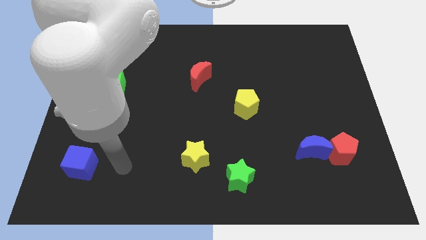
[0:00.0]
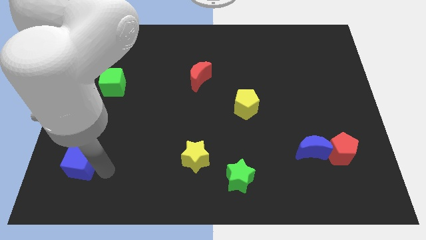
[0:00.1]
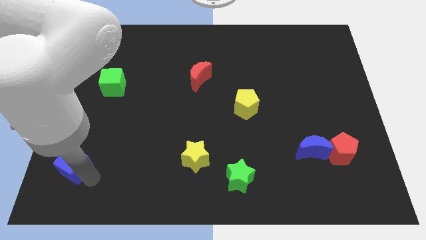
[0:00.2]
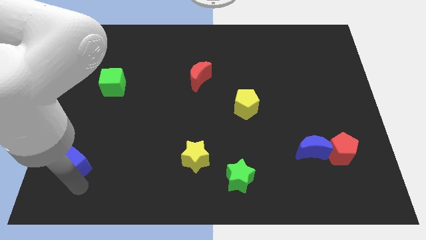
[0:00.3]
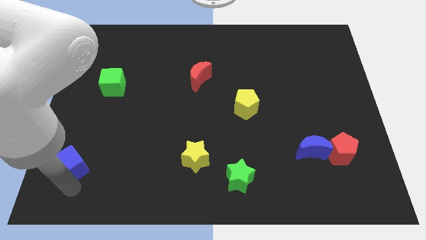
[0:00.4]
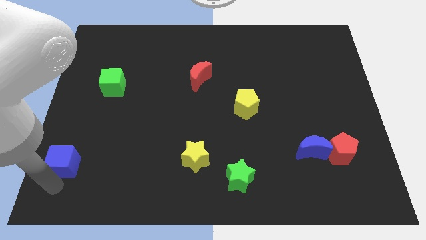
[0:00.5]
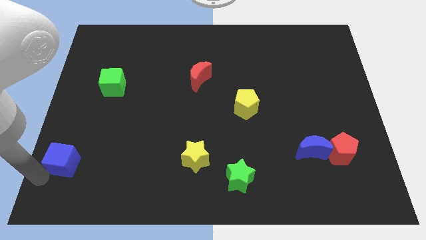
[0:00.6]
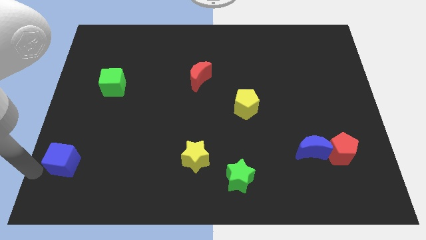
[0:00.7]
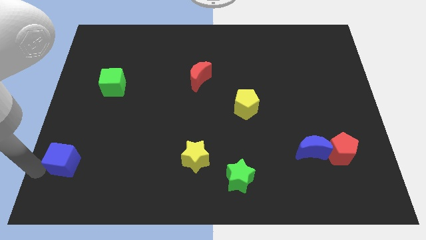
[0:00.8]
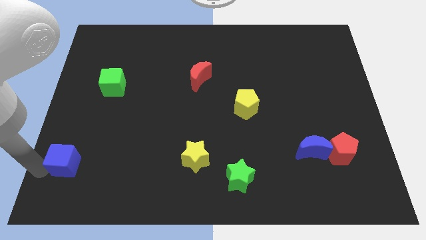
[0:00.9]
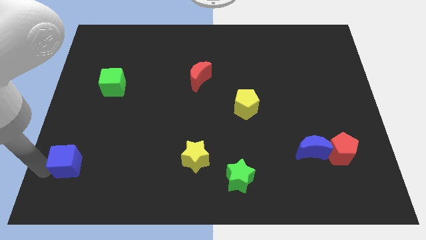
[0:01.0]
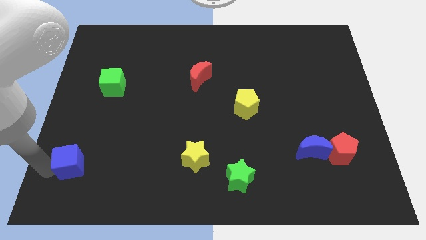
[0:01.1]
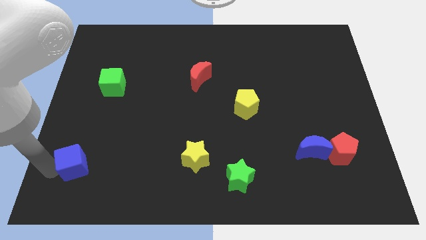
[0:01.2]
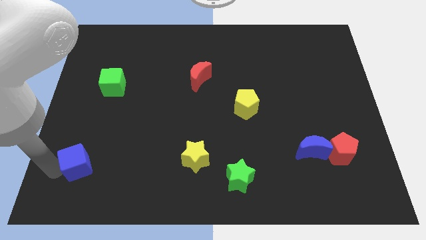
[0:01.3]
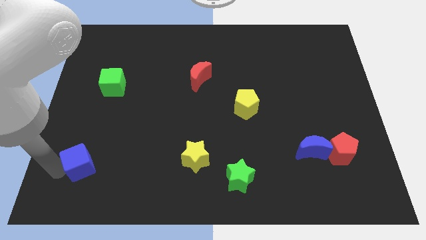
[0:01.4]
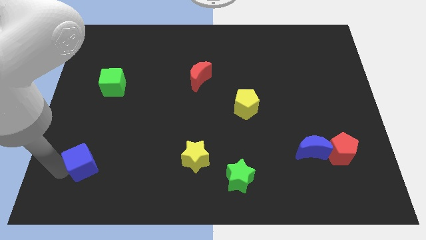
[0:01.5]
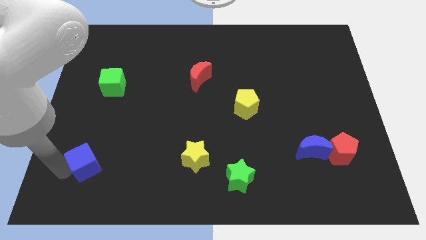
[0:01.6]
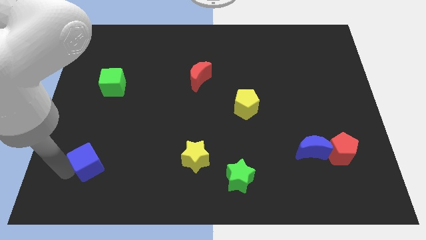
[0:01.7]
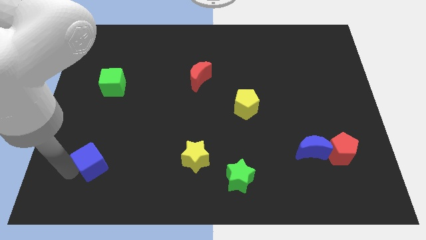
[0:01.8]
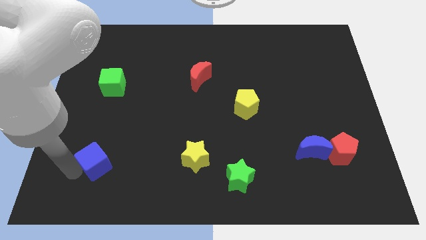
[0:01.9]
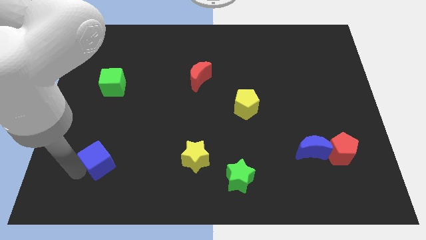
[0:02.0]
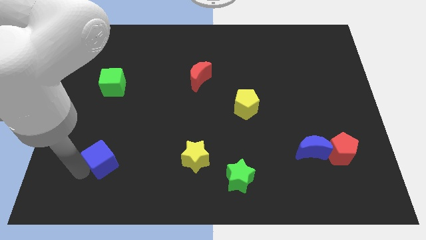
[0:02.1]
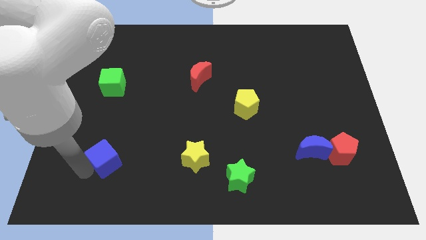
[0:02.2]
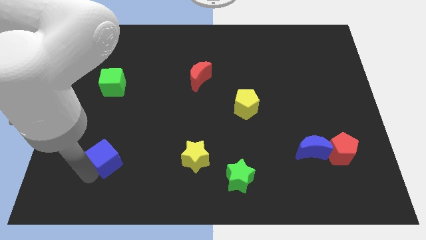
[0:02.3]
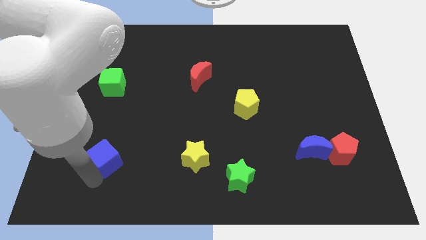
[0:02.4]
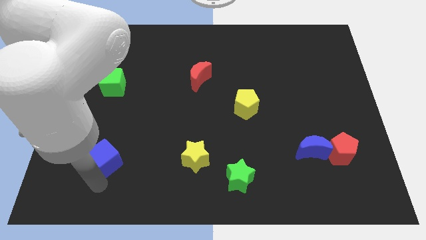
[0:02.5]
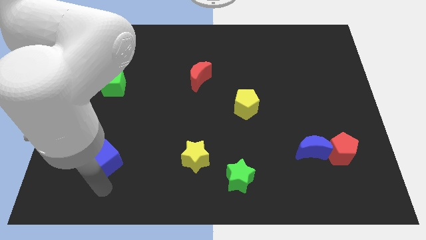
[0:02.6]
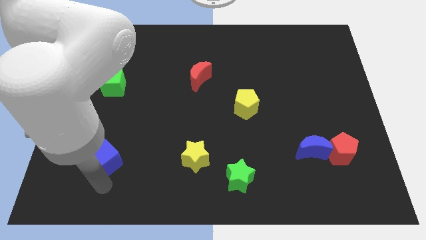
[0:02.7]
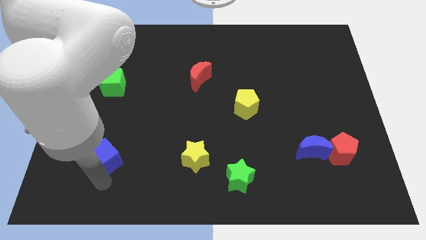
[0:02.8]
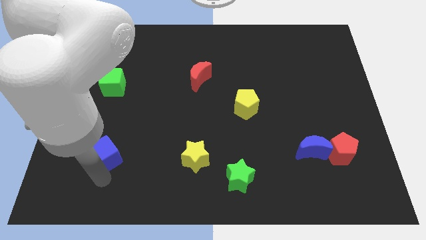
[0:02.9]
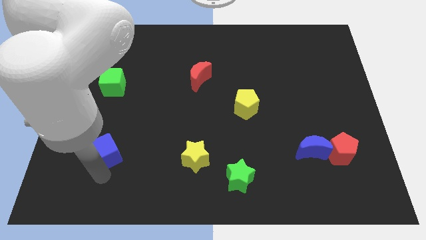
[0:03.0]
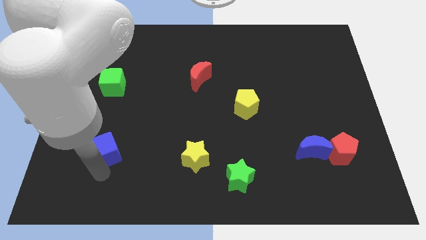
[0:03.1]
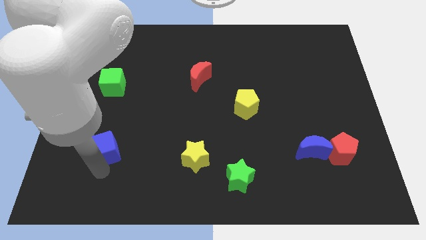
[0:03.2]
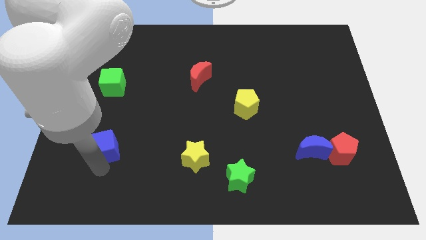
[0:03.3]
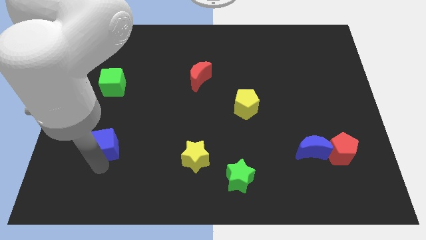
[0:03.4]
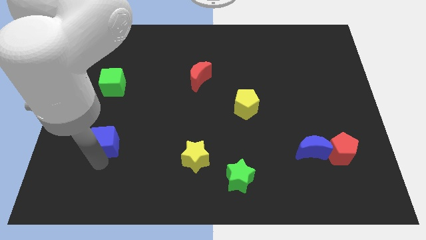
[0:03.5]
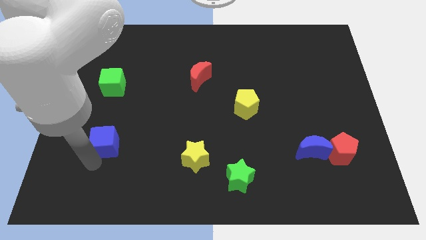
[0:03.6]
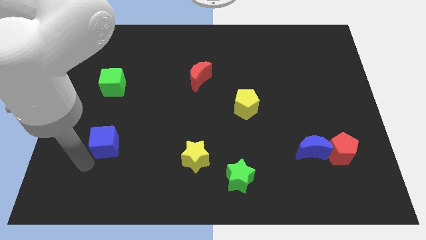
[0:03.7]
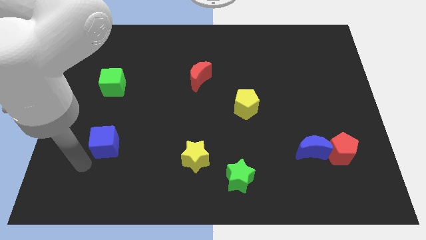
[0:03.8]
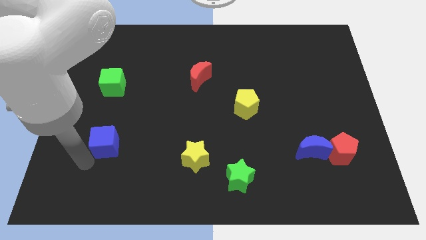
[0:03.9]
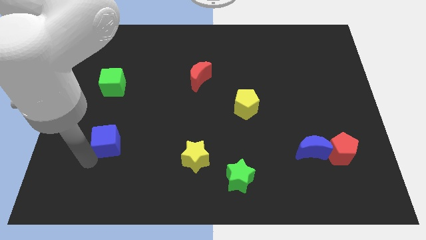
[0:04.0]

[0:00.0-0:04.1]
slide the blue cube somewhat diagonally upwards and right

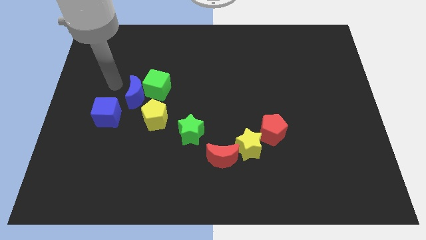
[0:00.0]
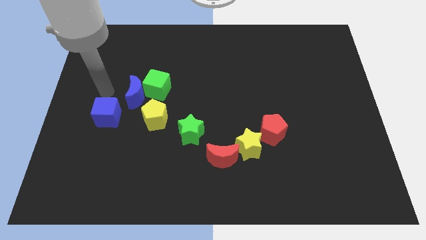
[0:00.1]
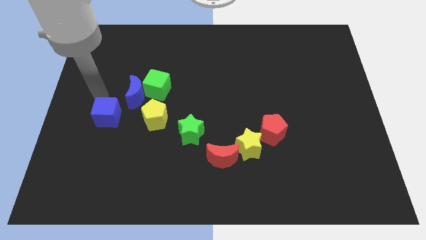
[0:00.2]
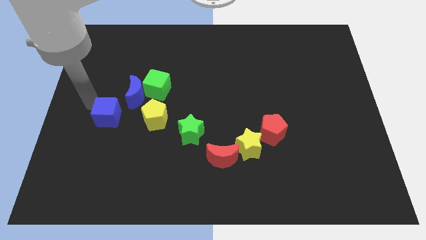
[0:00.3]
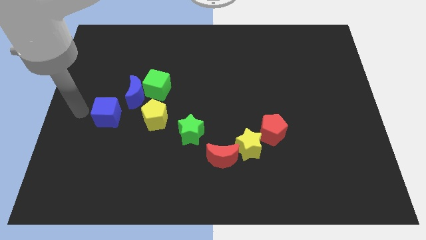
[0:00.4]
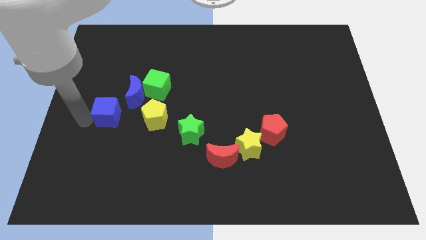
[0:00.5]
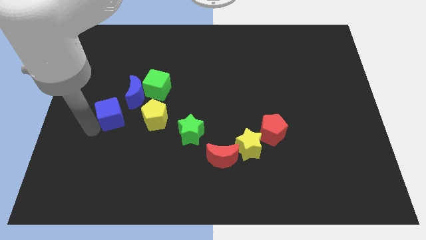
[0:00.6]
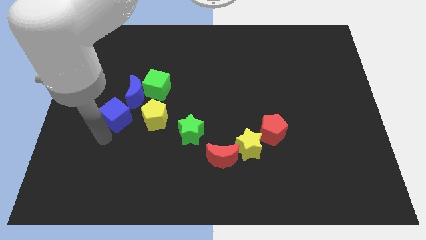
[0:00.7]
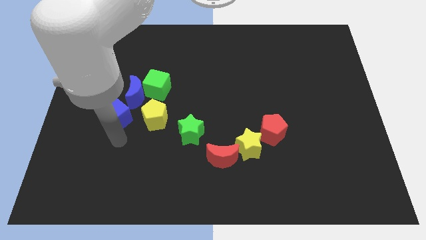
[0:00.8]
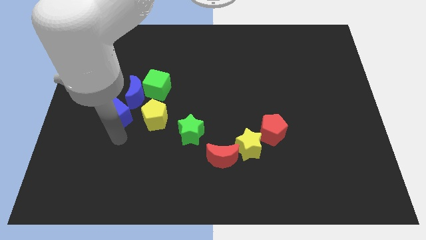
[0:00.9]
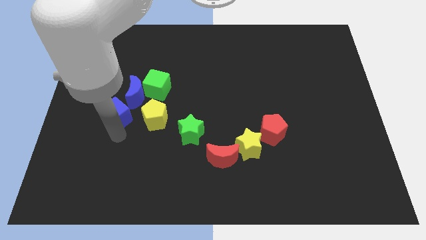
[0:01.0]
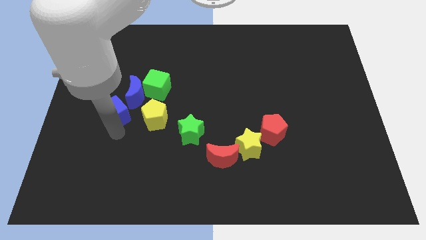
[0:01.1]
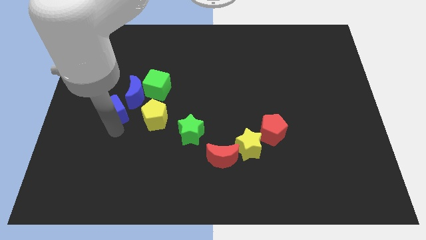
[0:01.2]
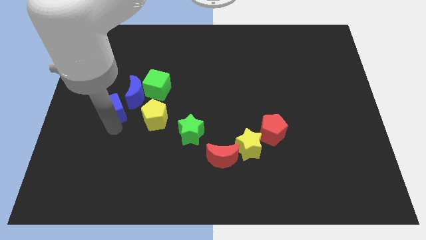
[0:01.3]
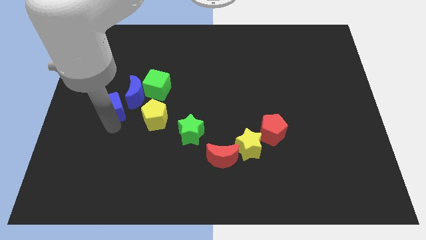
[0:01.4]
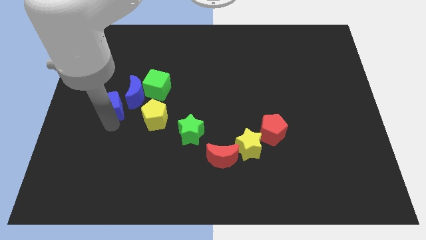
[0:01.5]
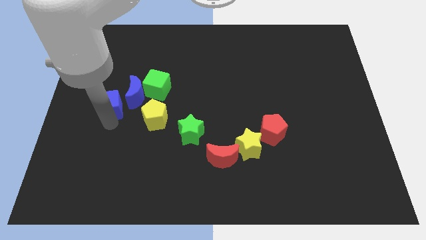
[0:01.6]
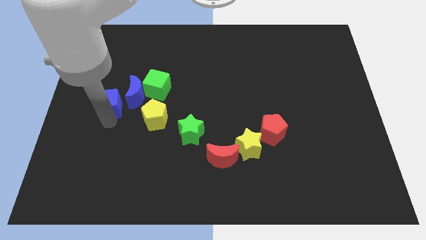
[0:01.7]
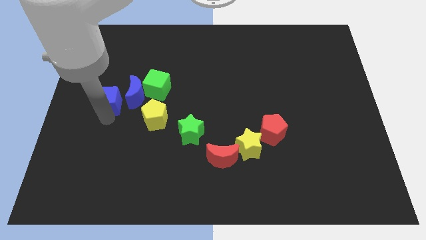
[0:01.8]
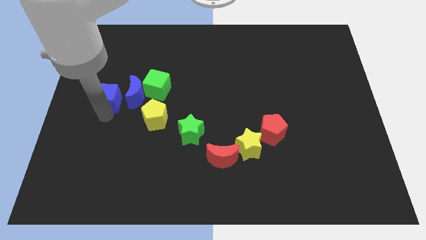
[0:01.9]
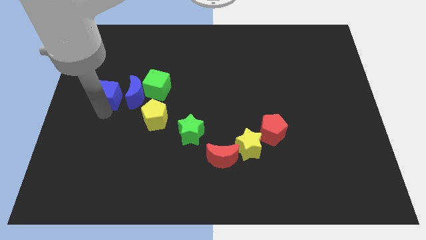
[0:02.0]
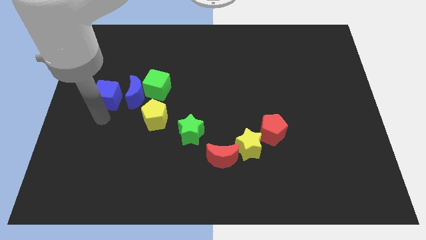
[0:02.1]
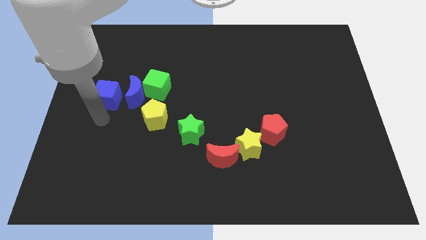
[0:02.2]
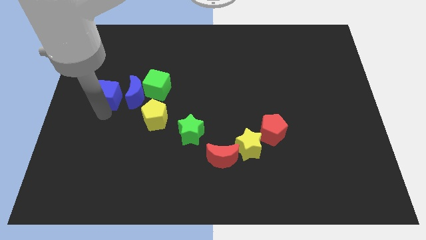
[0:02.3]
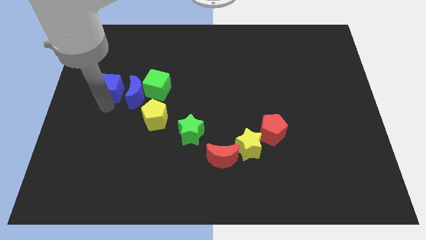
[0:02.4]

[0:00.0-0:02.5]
slightly push the blue cube upwards

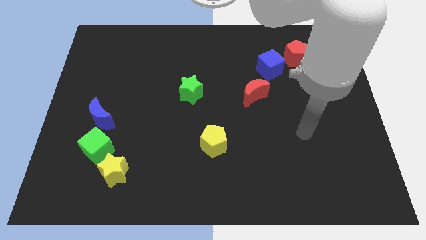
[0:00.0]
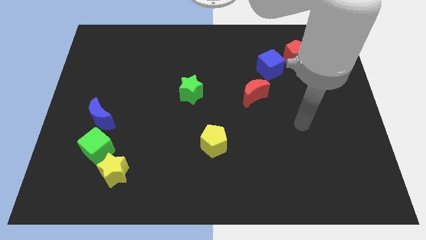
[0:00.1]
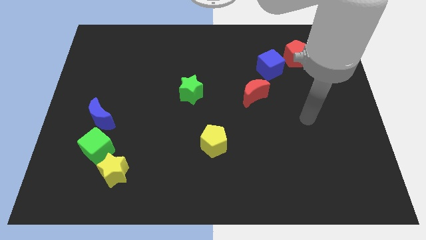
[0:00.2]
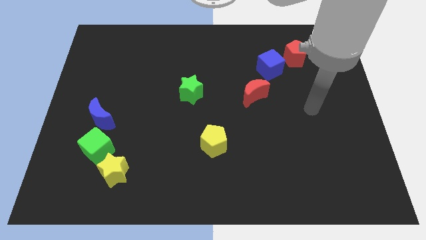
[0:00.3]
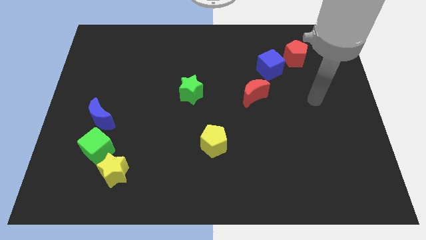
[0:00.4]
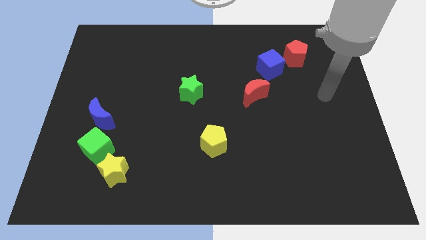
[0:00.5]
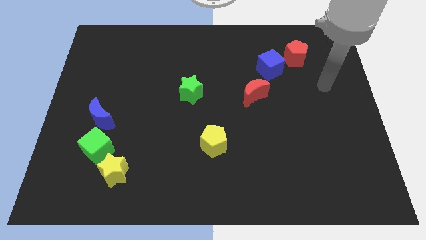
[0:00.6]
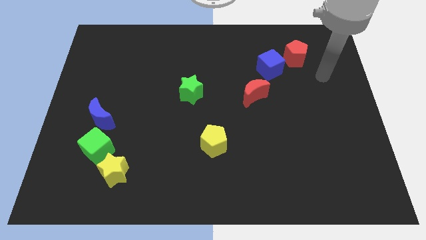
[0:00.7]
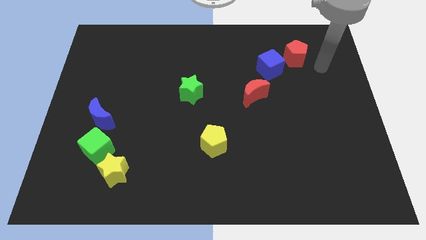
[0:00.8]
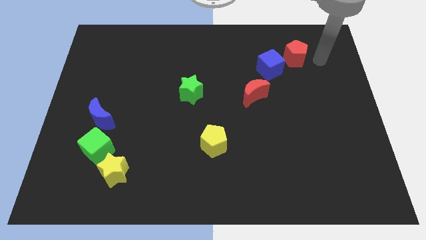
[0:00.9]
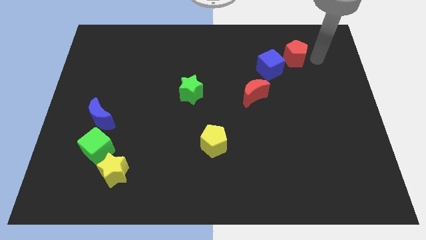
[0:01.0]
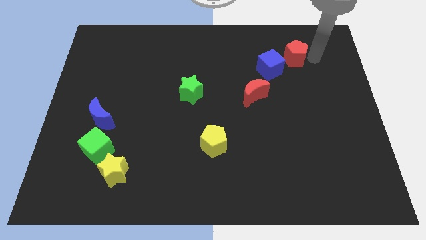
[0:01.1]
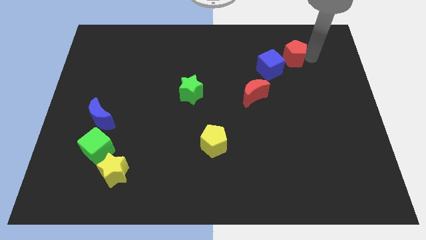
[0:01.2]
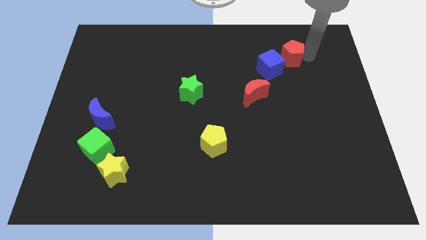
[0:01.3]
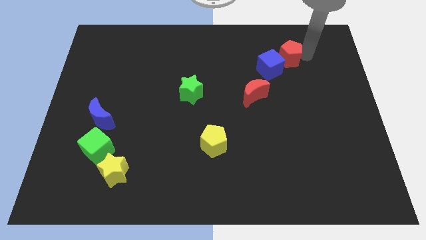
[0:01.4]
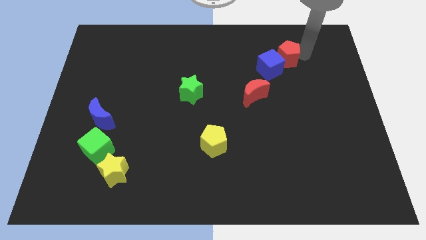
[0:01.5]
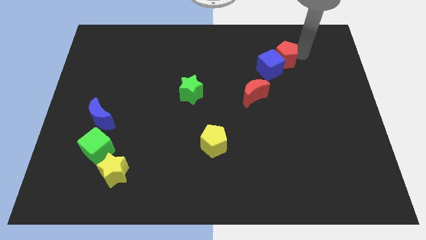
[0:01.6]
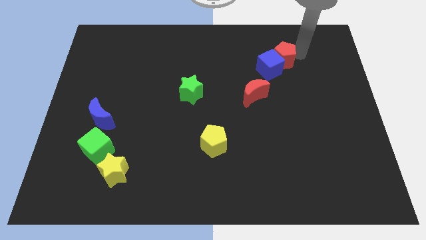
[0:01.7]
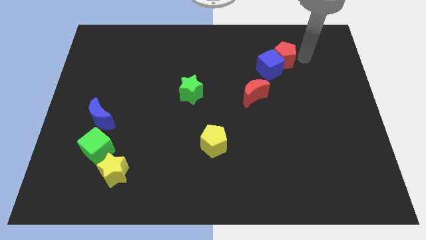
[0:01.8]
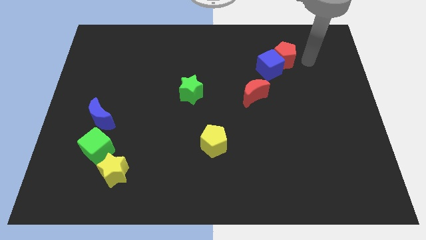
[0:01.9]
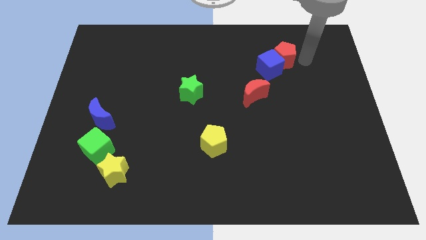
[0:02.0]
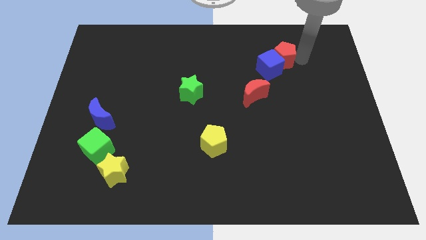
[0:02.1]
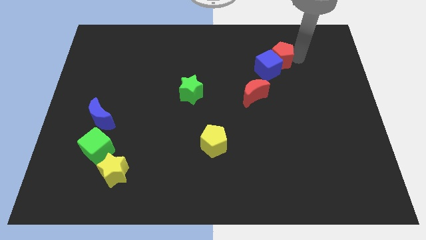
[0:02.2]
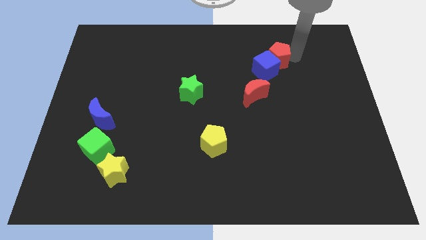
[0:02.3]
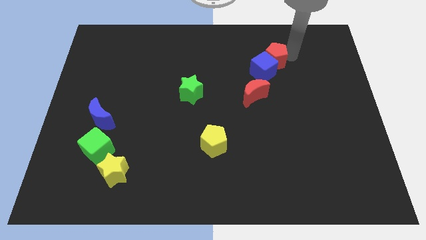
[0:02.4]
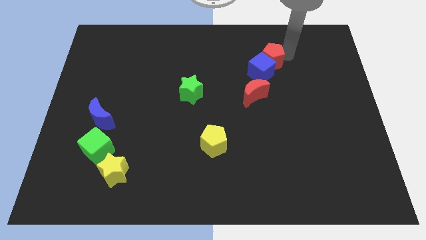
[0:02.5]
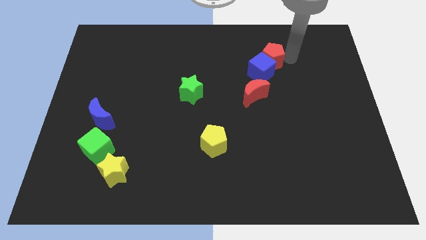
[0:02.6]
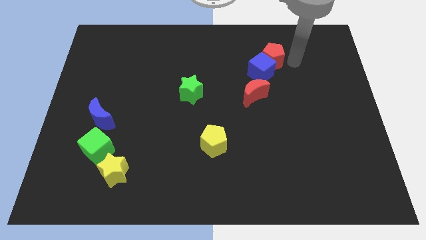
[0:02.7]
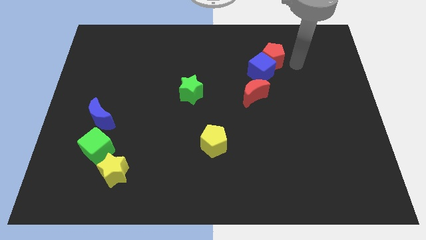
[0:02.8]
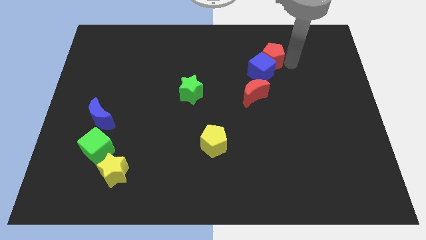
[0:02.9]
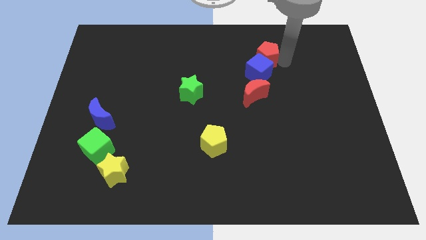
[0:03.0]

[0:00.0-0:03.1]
slightly slide the red pentagon left
